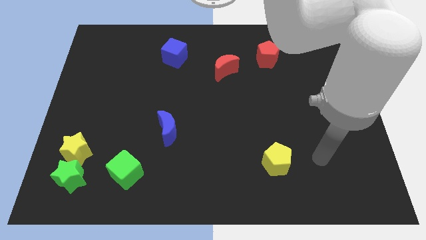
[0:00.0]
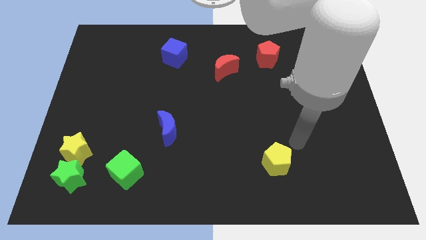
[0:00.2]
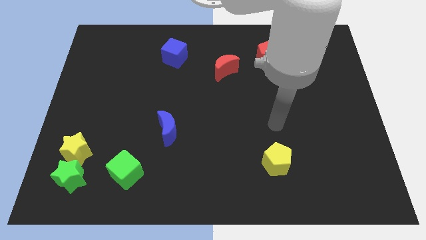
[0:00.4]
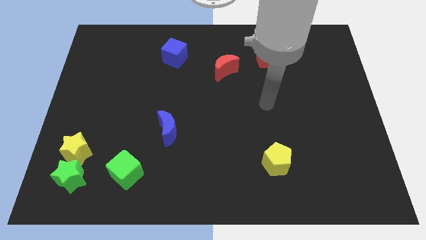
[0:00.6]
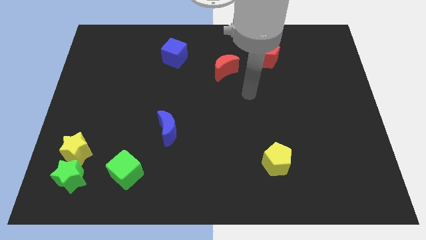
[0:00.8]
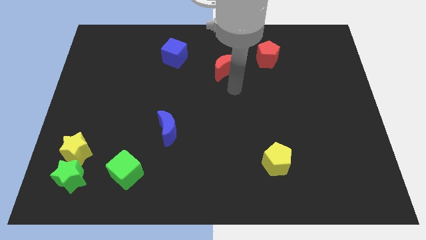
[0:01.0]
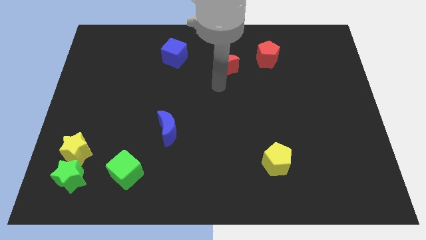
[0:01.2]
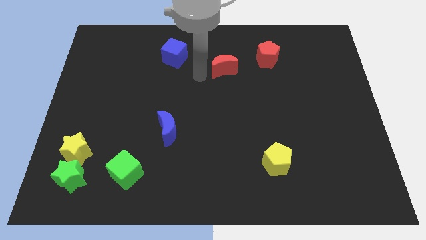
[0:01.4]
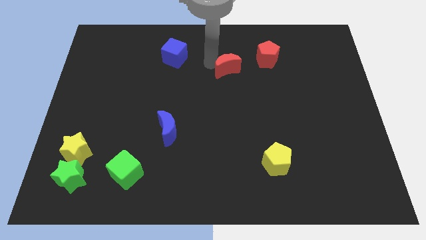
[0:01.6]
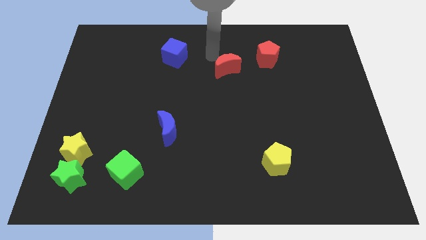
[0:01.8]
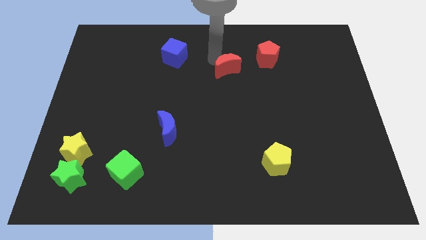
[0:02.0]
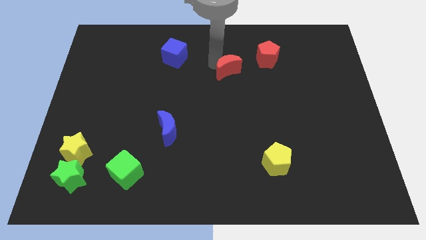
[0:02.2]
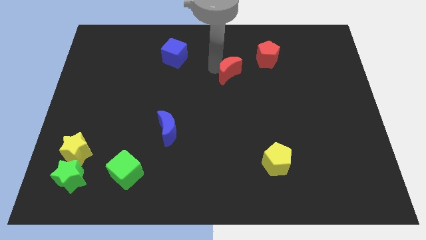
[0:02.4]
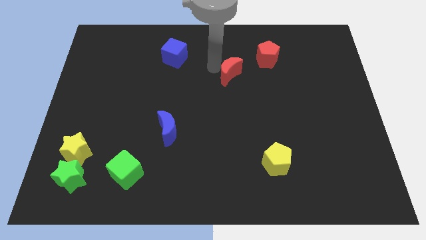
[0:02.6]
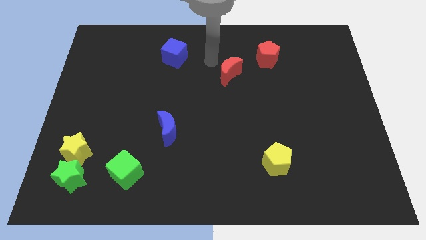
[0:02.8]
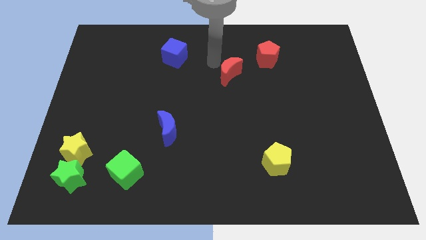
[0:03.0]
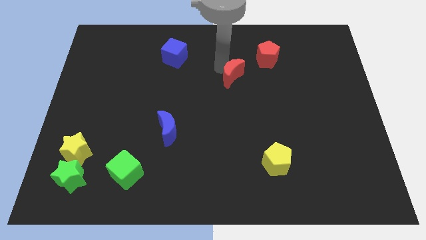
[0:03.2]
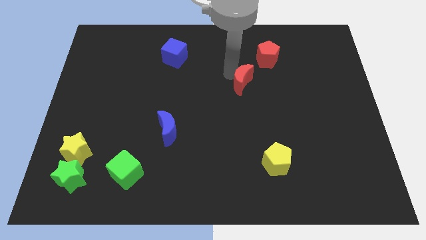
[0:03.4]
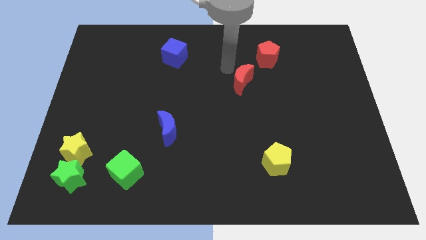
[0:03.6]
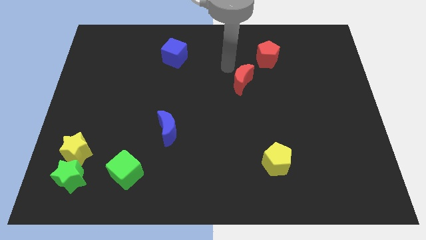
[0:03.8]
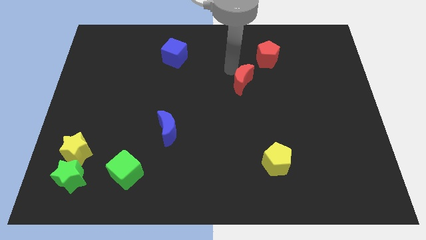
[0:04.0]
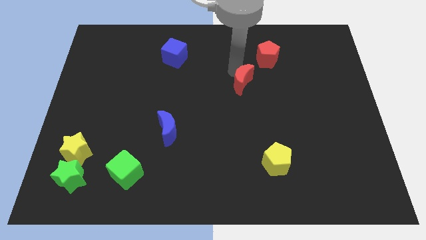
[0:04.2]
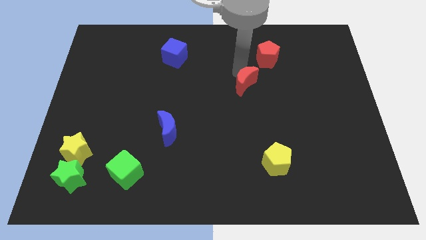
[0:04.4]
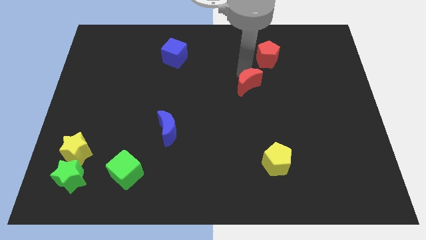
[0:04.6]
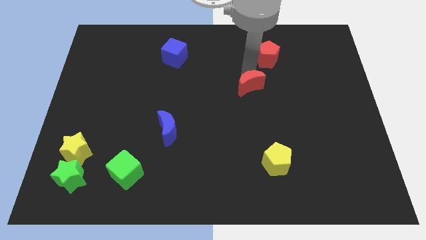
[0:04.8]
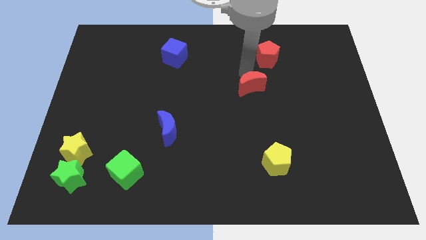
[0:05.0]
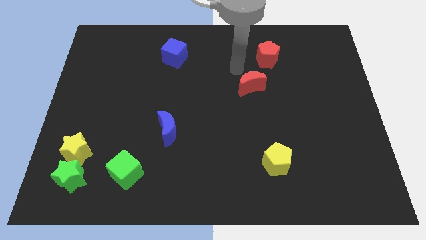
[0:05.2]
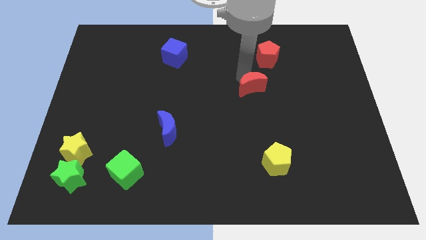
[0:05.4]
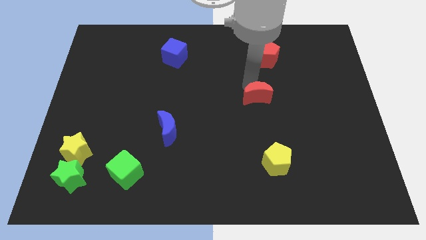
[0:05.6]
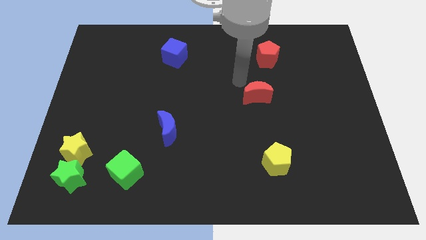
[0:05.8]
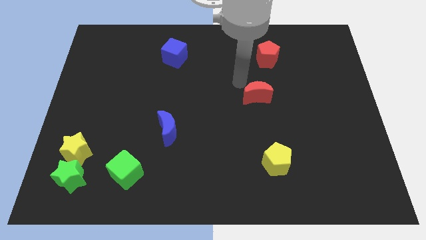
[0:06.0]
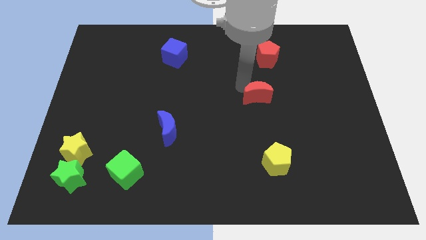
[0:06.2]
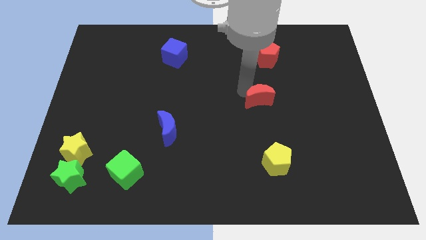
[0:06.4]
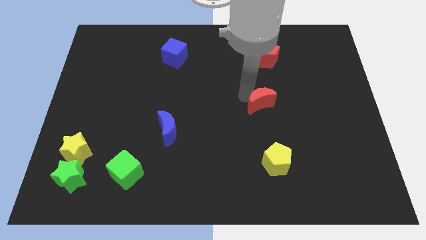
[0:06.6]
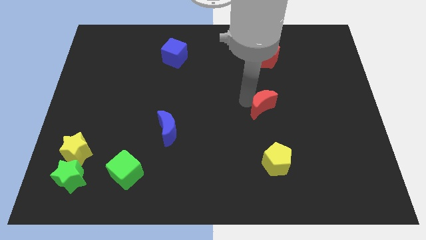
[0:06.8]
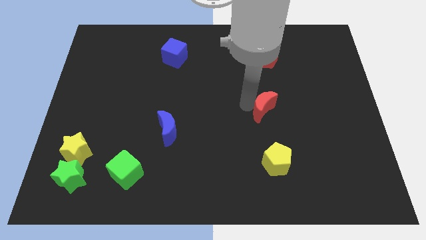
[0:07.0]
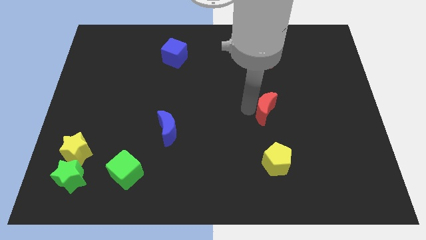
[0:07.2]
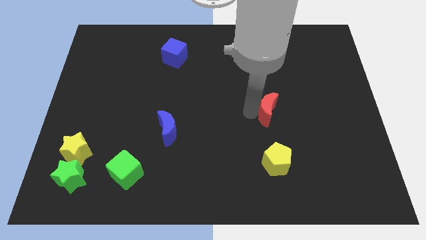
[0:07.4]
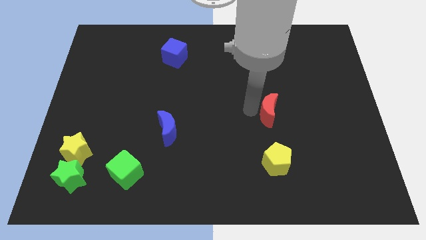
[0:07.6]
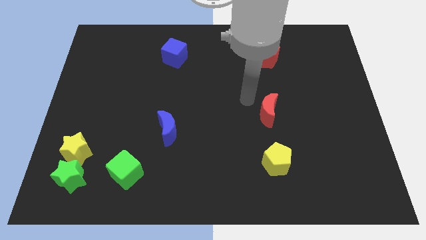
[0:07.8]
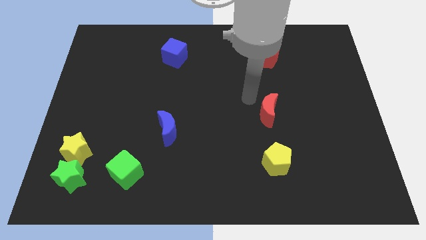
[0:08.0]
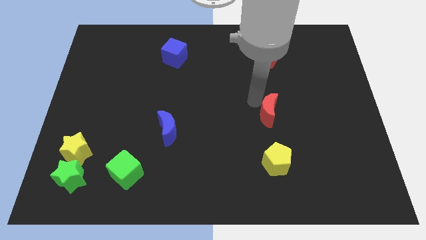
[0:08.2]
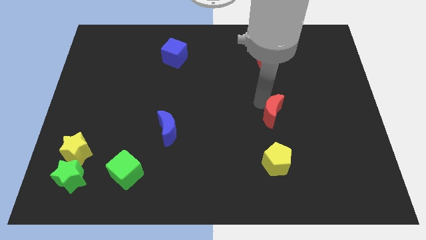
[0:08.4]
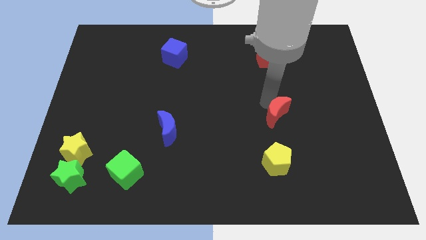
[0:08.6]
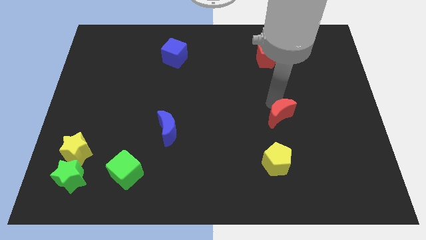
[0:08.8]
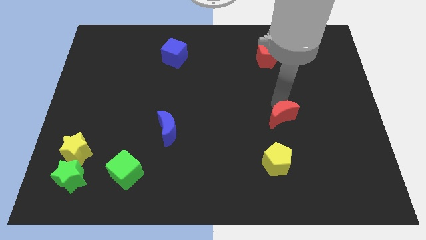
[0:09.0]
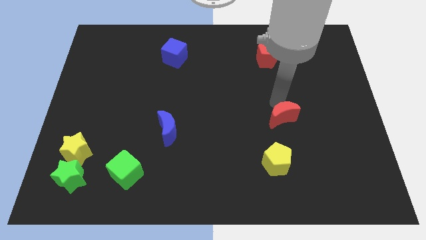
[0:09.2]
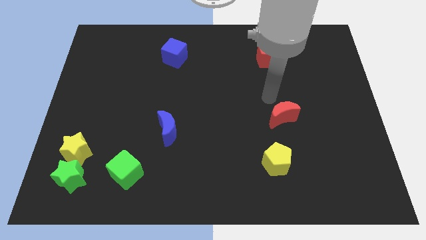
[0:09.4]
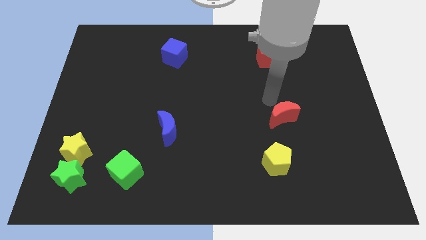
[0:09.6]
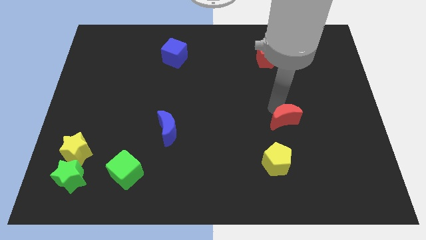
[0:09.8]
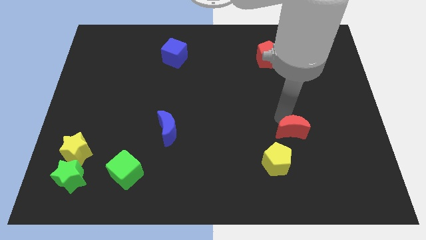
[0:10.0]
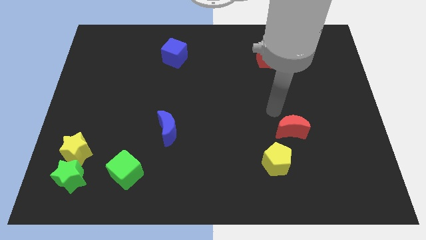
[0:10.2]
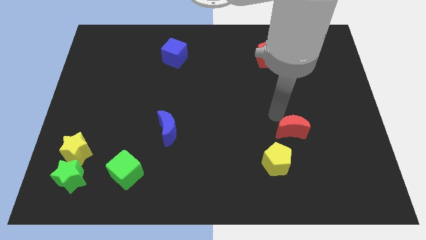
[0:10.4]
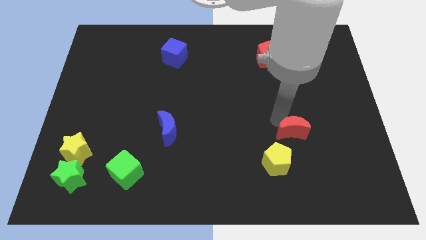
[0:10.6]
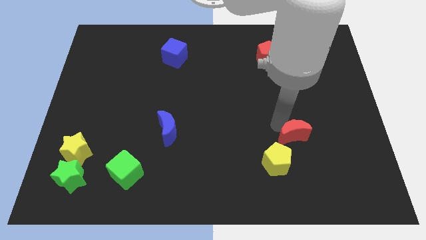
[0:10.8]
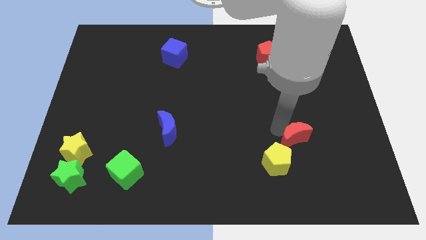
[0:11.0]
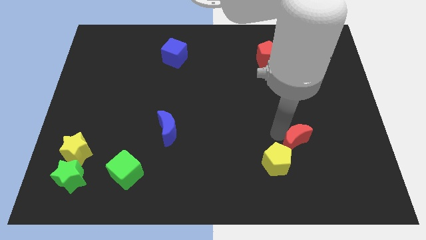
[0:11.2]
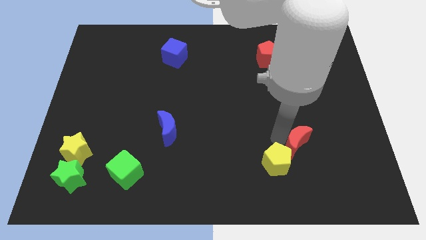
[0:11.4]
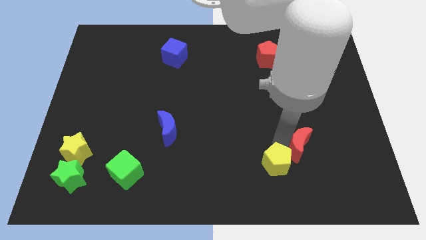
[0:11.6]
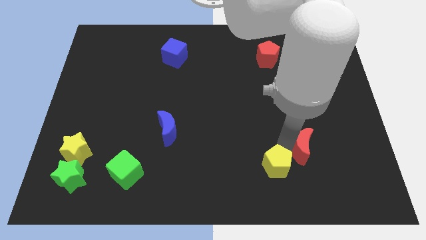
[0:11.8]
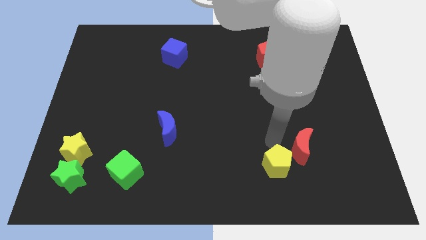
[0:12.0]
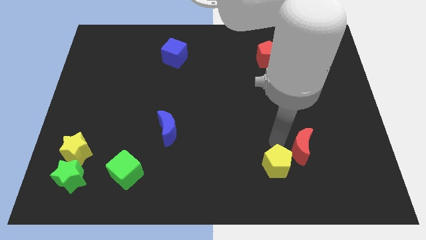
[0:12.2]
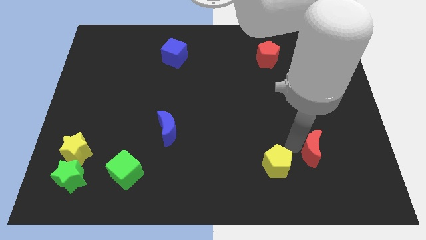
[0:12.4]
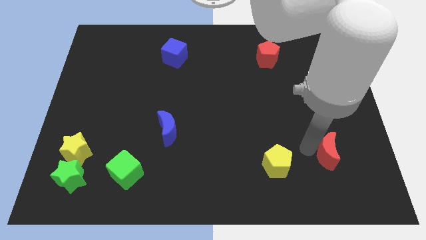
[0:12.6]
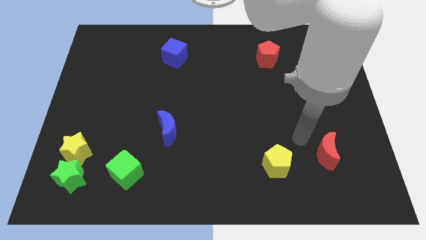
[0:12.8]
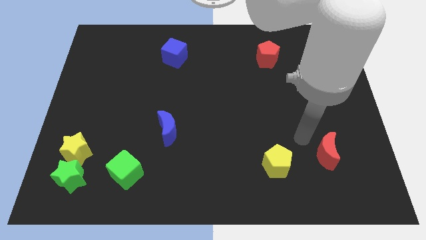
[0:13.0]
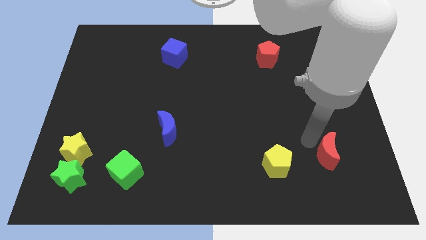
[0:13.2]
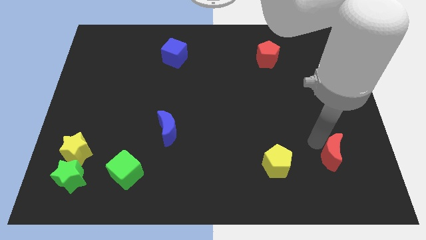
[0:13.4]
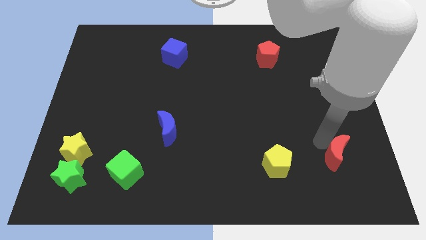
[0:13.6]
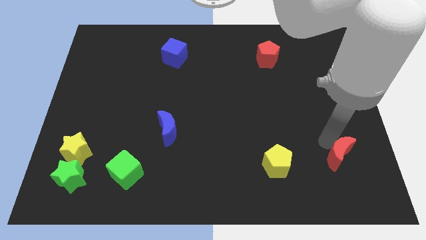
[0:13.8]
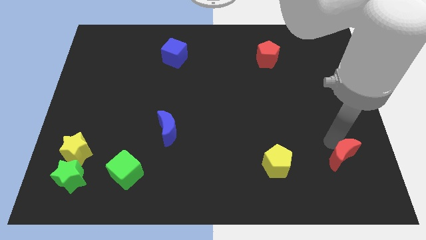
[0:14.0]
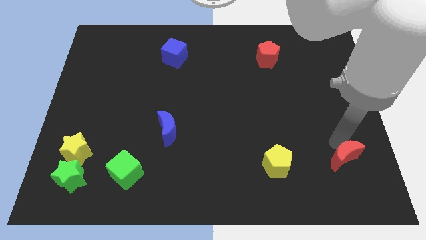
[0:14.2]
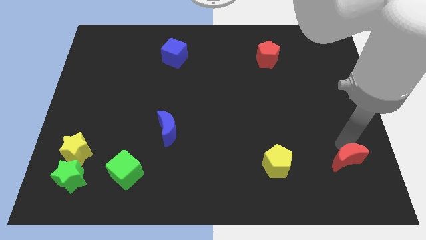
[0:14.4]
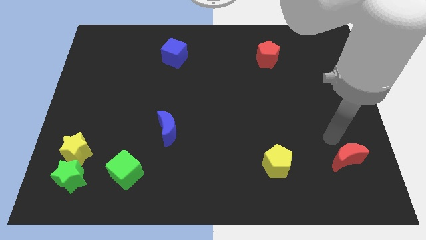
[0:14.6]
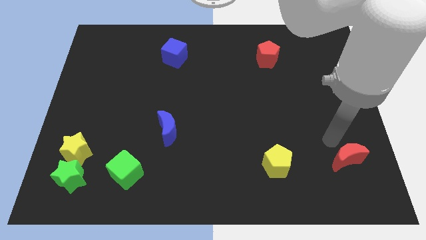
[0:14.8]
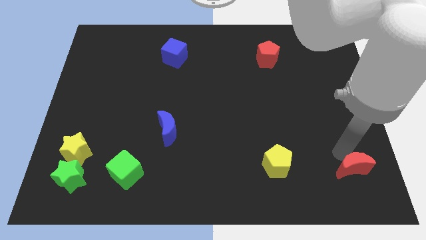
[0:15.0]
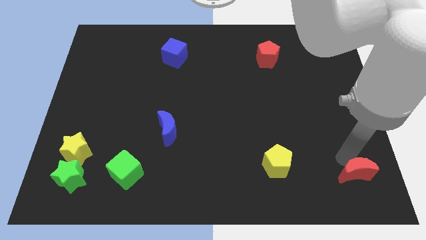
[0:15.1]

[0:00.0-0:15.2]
move the red moon to the bottom right corner

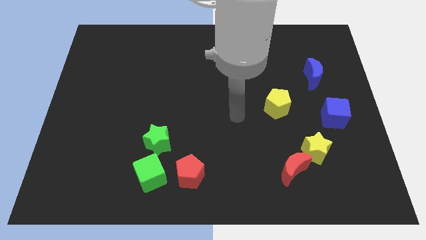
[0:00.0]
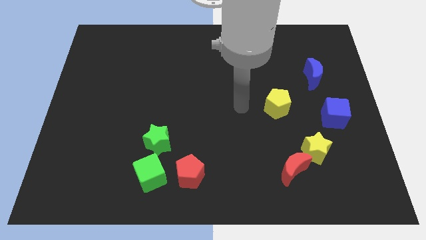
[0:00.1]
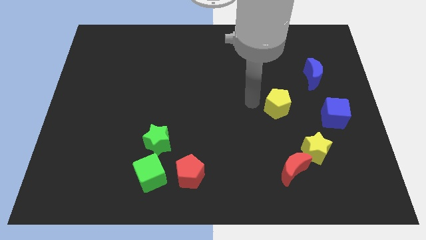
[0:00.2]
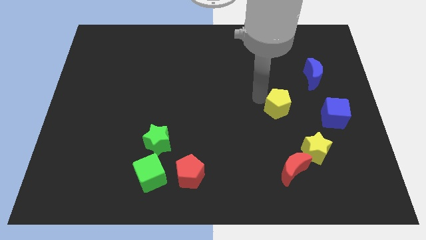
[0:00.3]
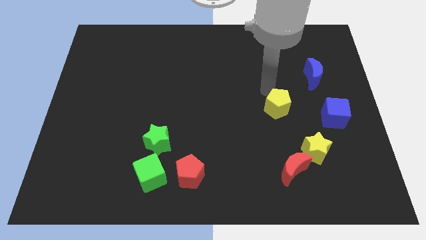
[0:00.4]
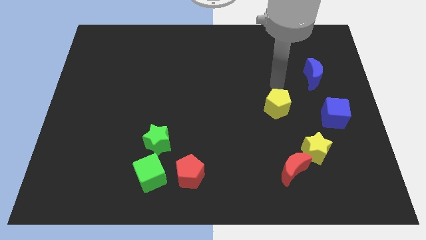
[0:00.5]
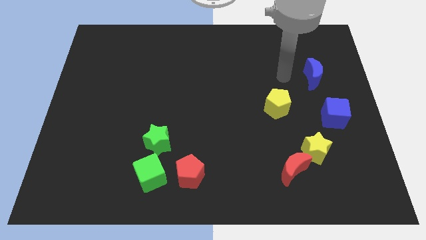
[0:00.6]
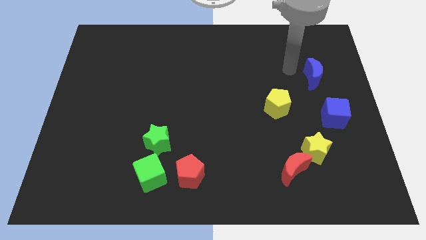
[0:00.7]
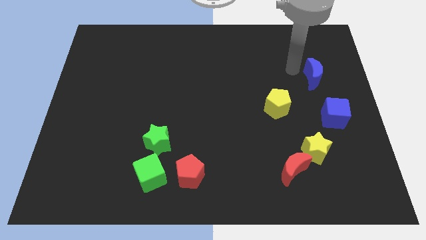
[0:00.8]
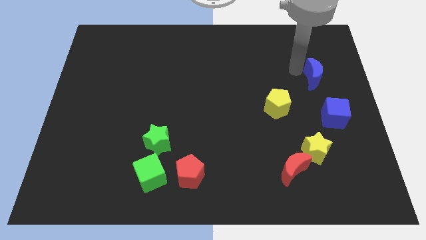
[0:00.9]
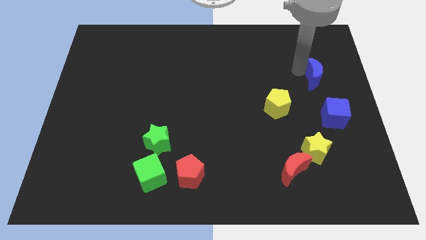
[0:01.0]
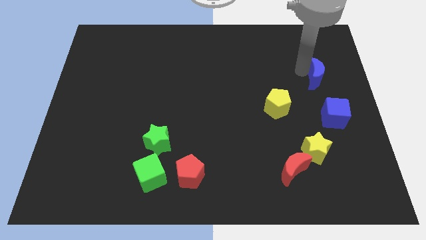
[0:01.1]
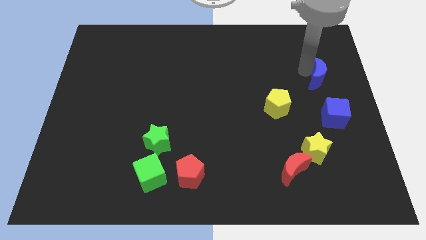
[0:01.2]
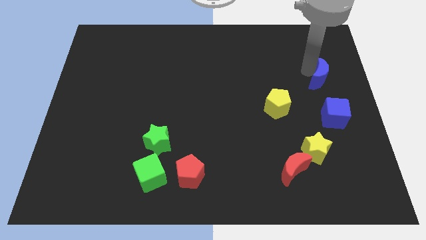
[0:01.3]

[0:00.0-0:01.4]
push the blue moon to the center right
